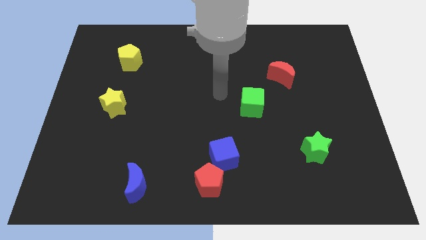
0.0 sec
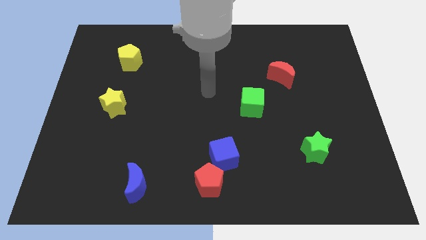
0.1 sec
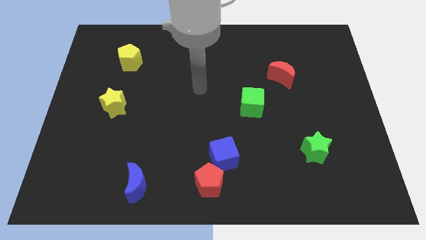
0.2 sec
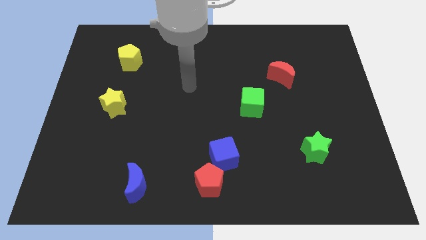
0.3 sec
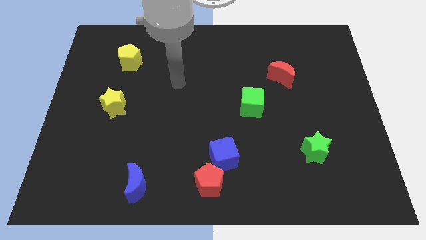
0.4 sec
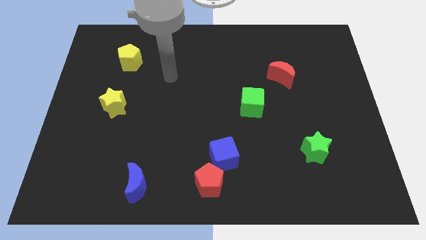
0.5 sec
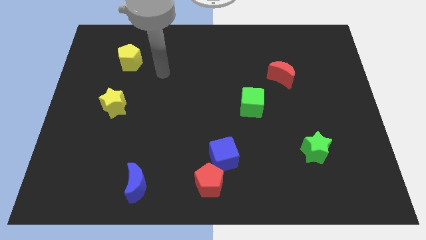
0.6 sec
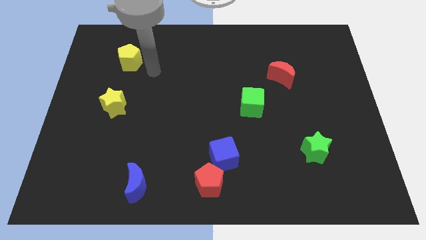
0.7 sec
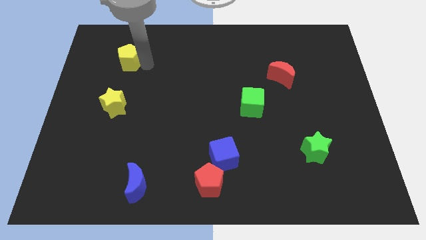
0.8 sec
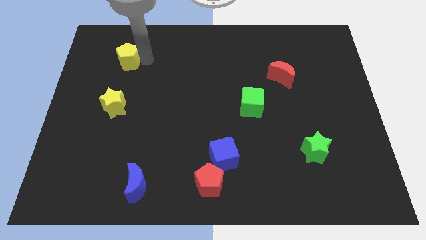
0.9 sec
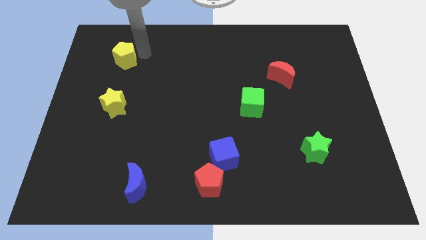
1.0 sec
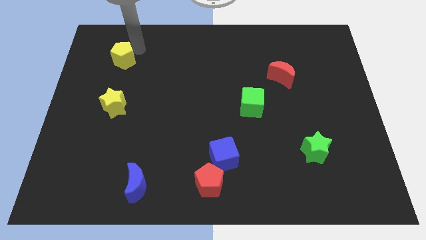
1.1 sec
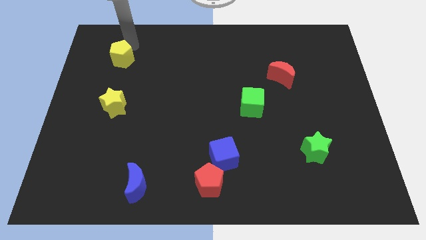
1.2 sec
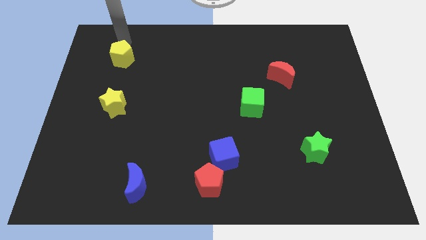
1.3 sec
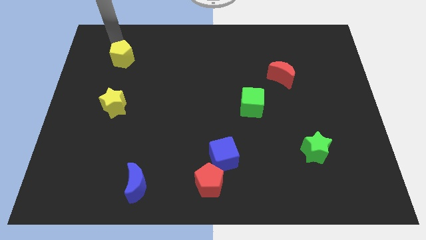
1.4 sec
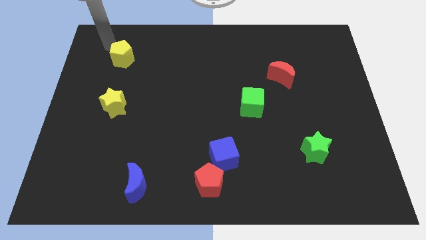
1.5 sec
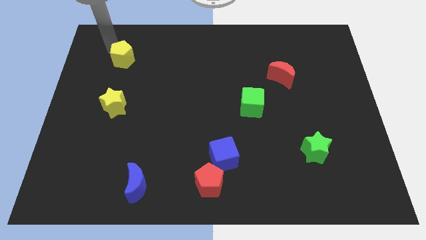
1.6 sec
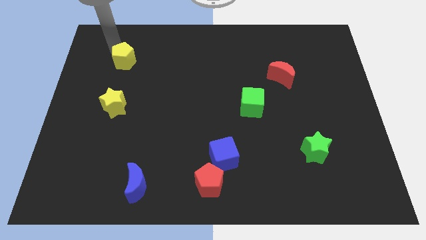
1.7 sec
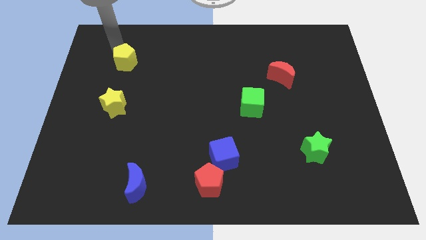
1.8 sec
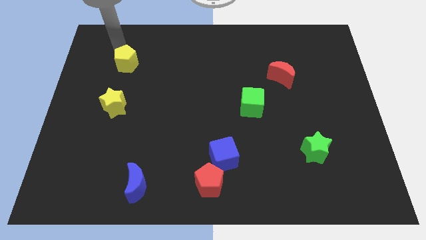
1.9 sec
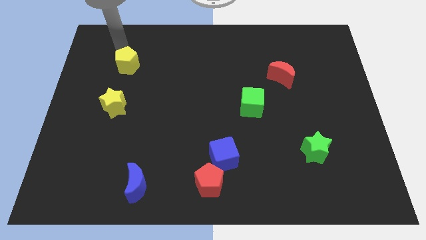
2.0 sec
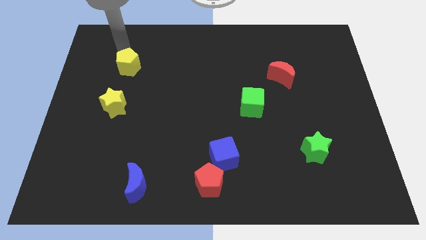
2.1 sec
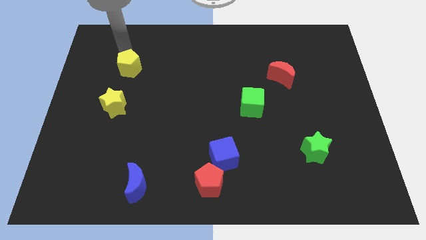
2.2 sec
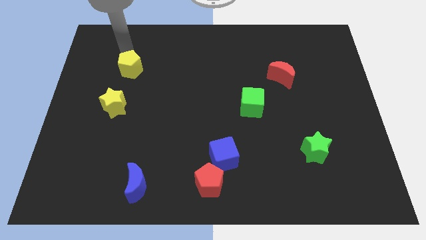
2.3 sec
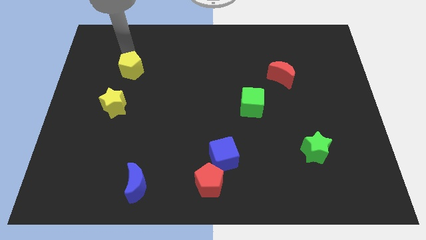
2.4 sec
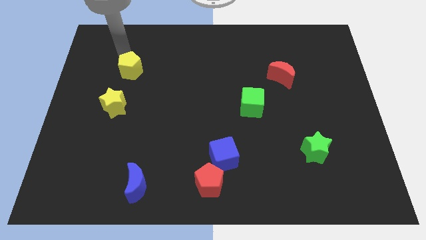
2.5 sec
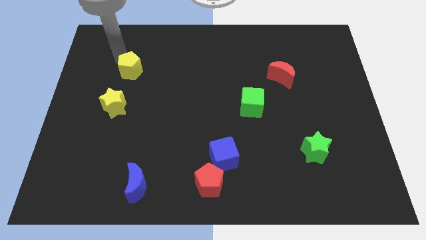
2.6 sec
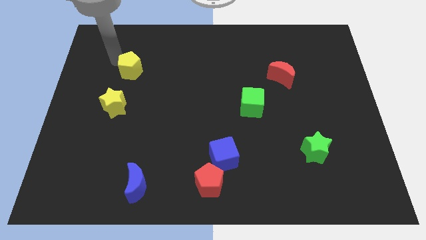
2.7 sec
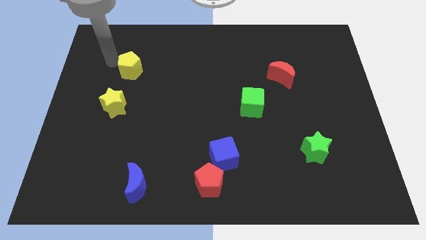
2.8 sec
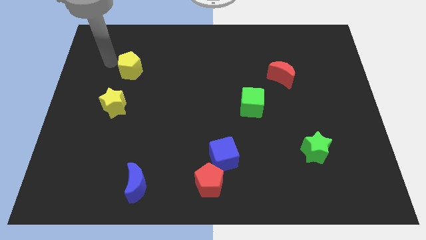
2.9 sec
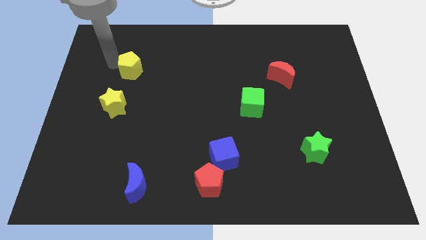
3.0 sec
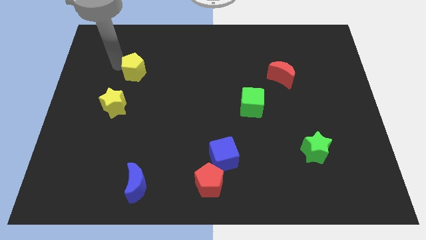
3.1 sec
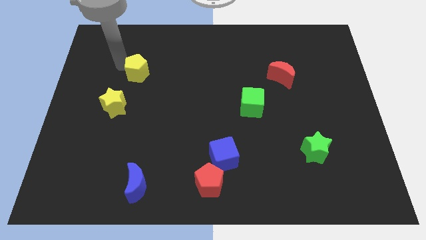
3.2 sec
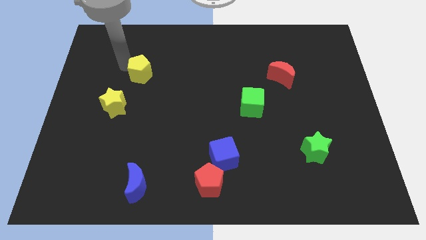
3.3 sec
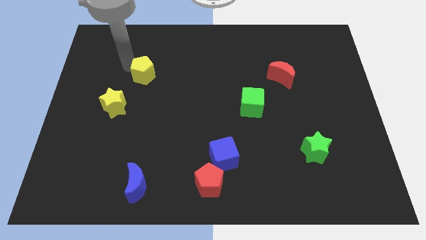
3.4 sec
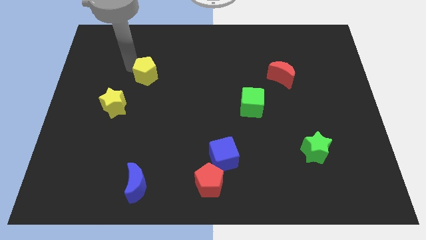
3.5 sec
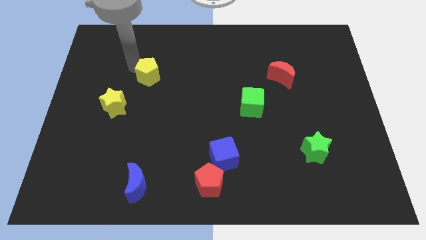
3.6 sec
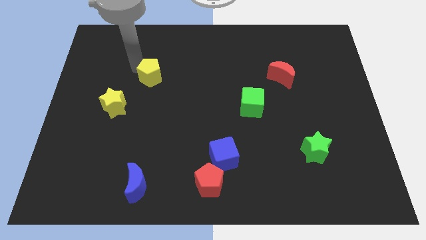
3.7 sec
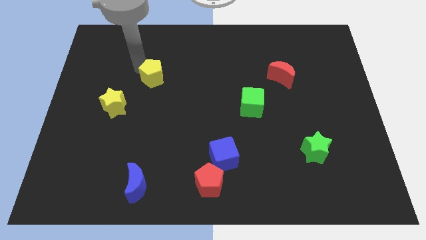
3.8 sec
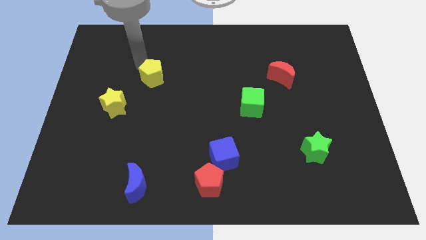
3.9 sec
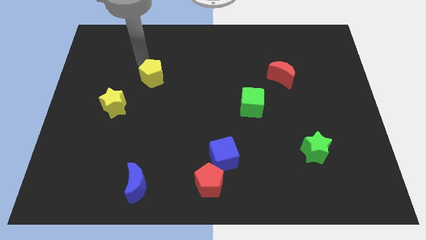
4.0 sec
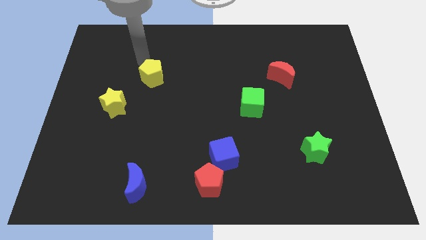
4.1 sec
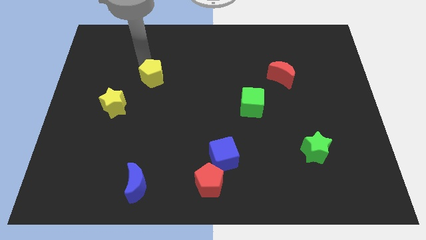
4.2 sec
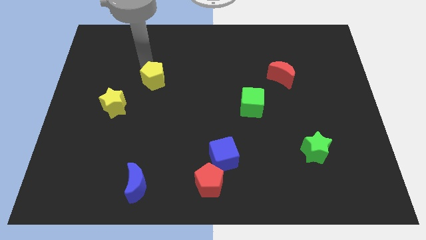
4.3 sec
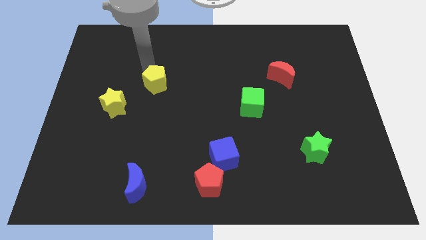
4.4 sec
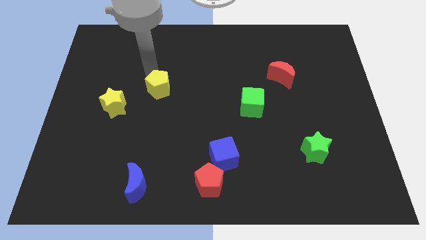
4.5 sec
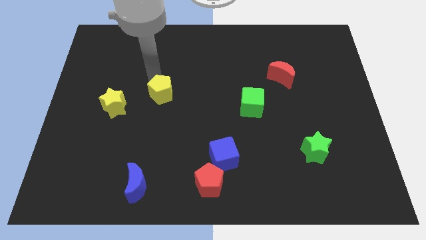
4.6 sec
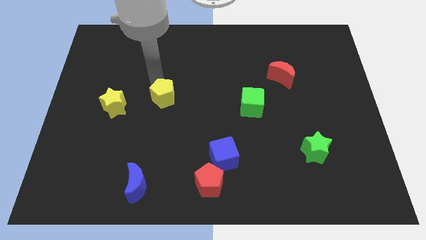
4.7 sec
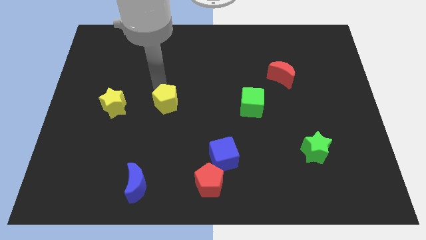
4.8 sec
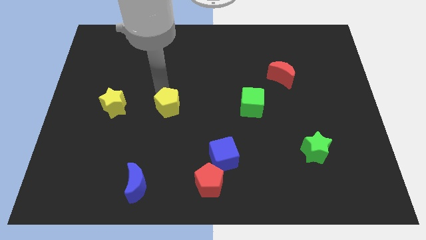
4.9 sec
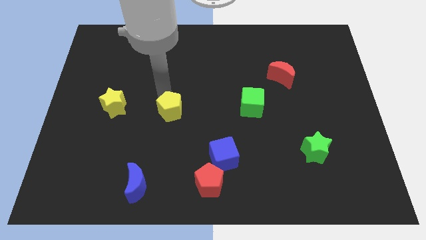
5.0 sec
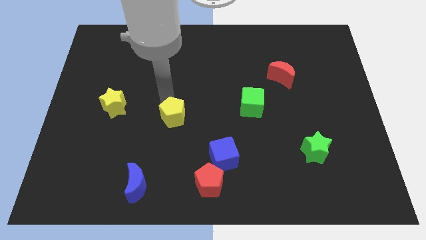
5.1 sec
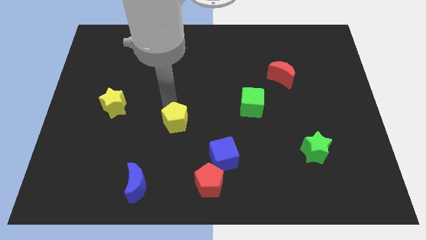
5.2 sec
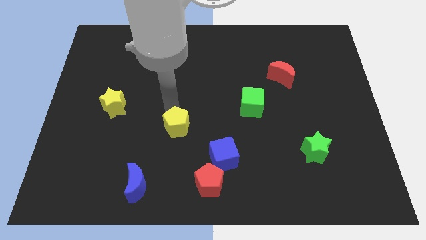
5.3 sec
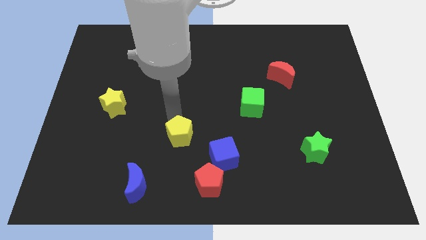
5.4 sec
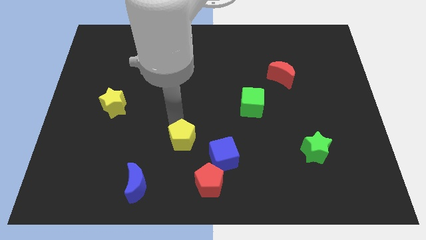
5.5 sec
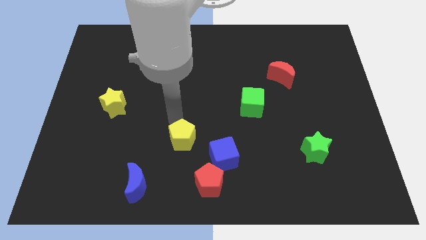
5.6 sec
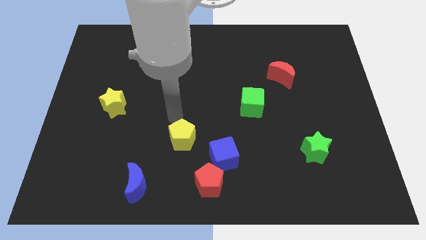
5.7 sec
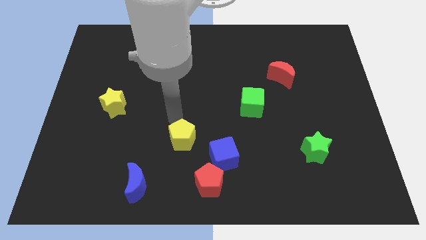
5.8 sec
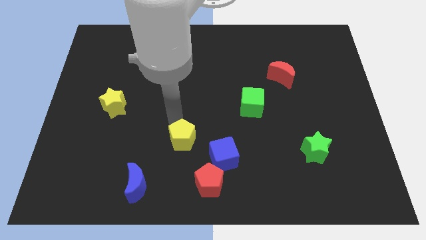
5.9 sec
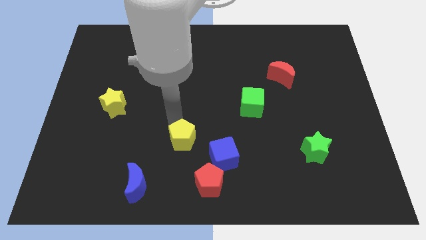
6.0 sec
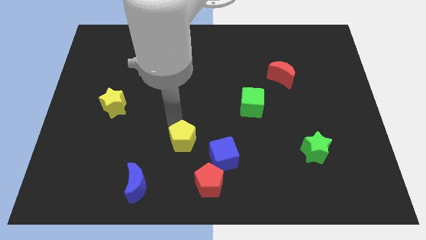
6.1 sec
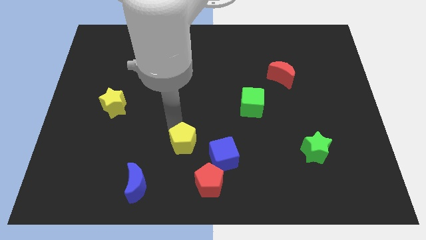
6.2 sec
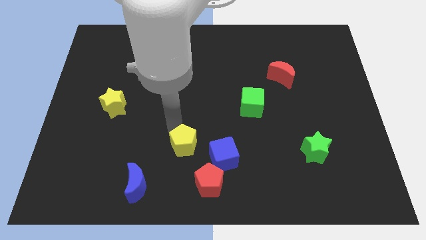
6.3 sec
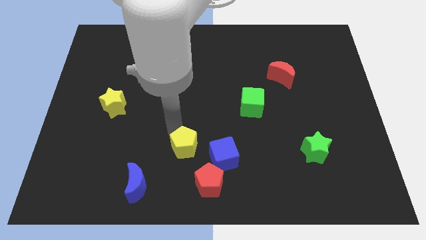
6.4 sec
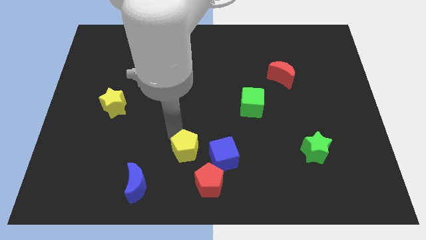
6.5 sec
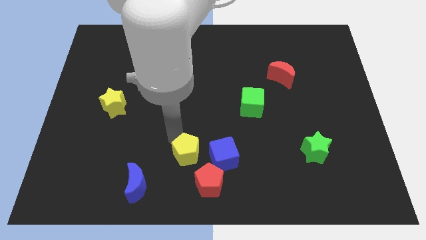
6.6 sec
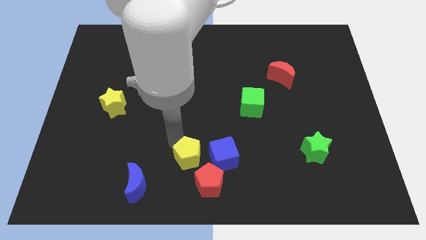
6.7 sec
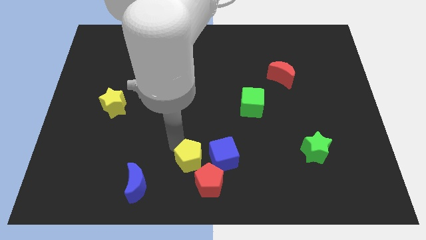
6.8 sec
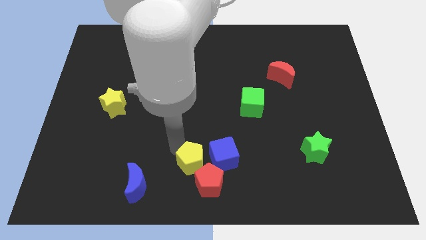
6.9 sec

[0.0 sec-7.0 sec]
push the yellow pentagon towards the red pentagon
